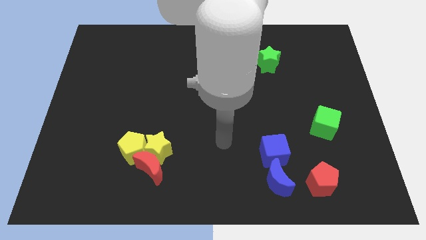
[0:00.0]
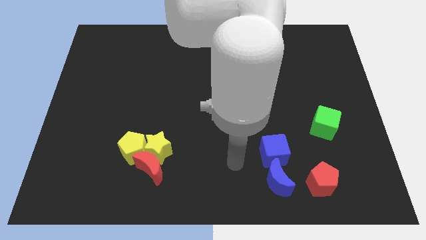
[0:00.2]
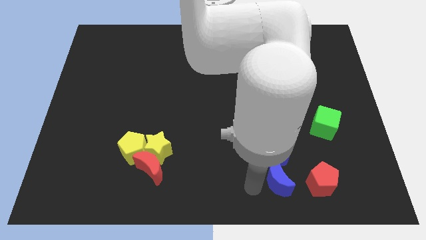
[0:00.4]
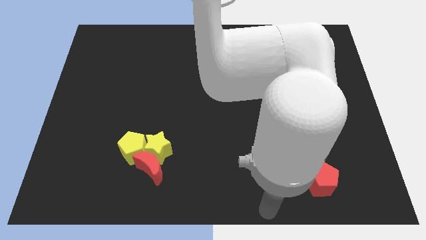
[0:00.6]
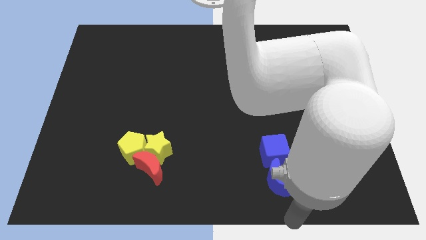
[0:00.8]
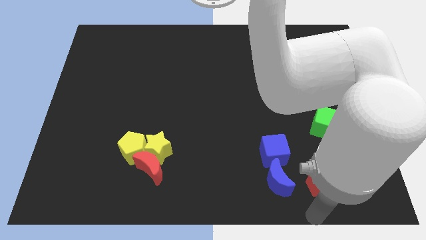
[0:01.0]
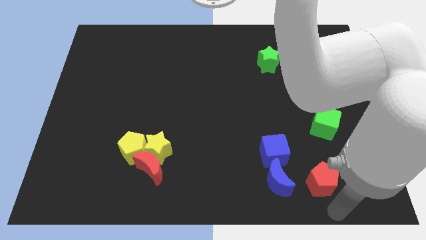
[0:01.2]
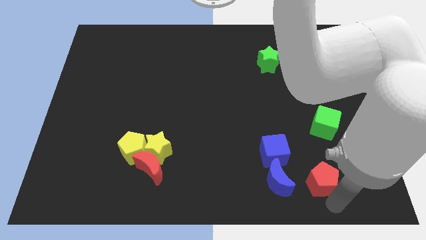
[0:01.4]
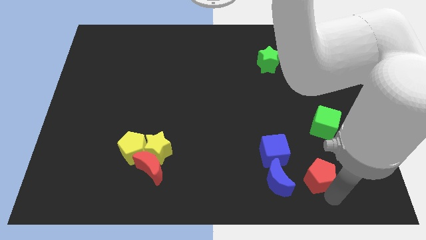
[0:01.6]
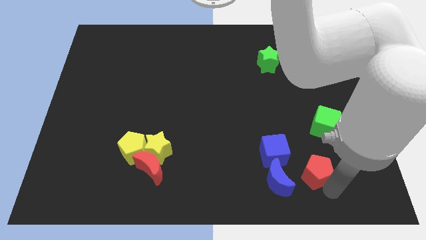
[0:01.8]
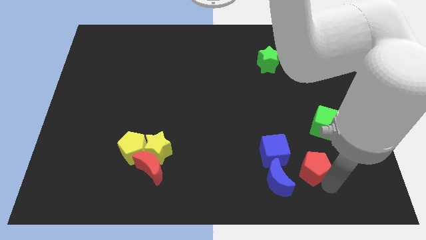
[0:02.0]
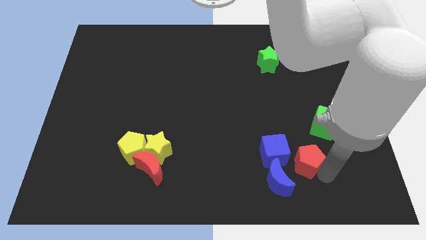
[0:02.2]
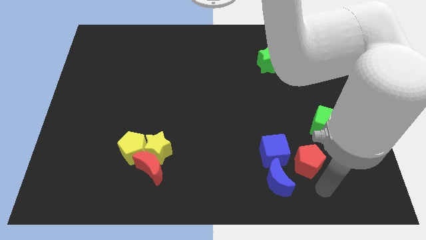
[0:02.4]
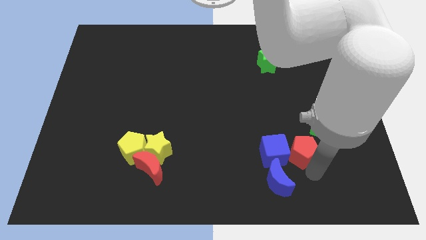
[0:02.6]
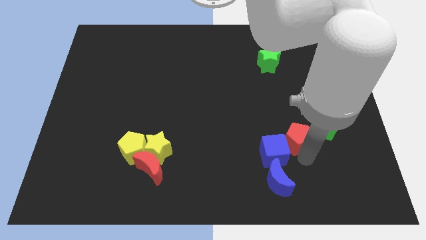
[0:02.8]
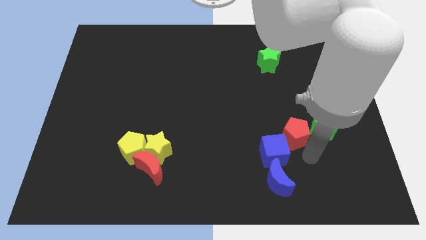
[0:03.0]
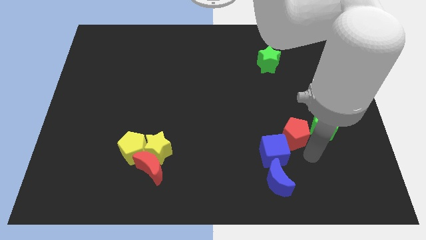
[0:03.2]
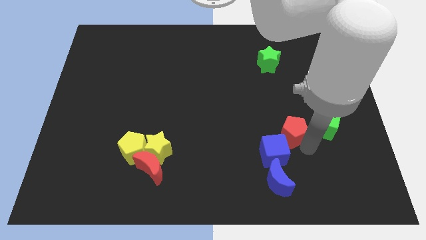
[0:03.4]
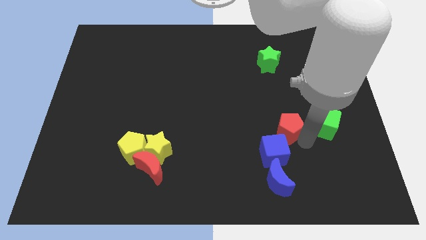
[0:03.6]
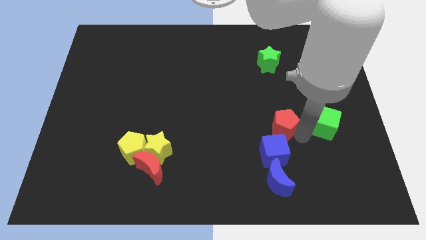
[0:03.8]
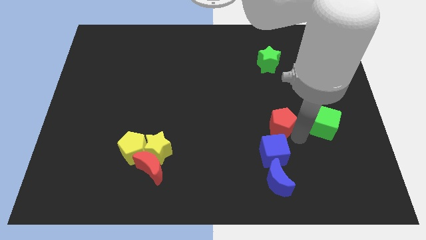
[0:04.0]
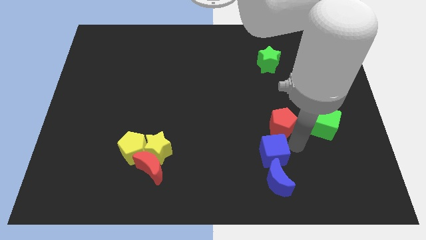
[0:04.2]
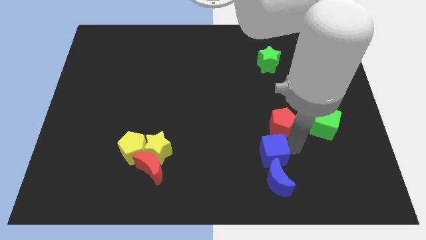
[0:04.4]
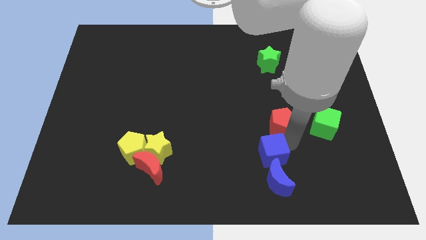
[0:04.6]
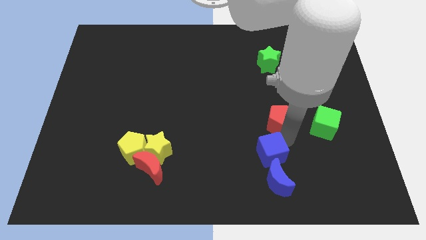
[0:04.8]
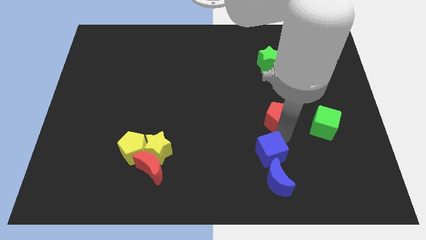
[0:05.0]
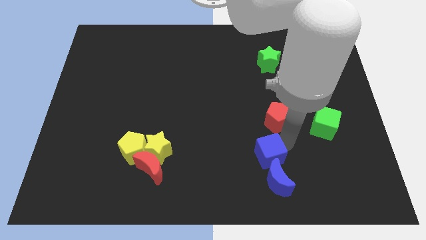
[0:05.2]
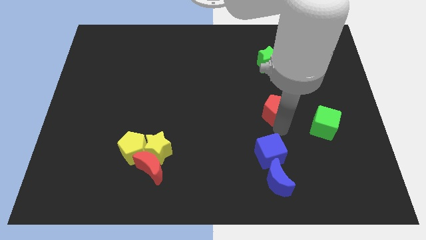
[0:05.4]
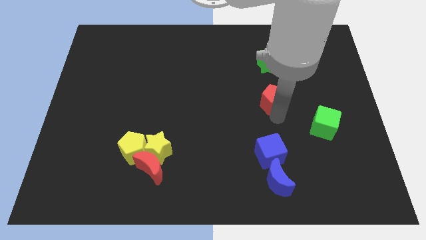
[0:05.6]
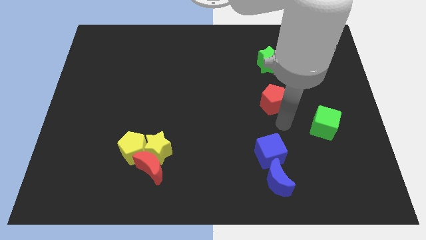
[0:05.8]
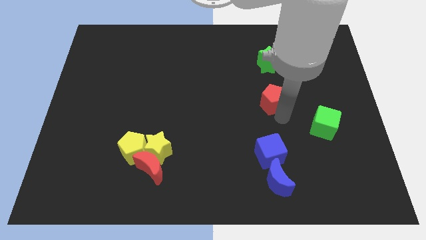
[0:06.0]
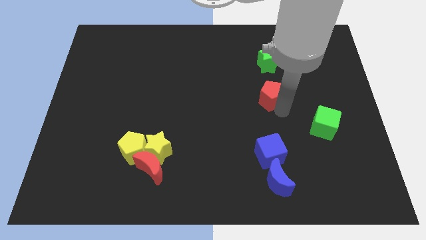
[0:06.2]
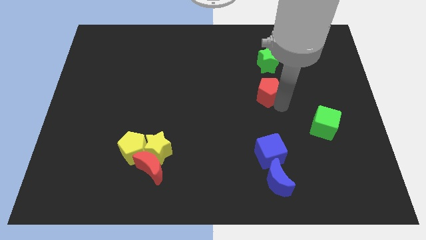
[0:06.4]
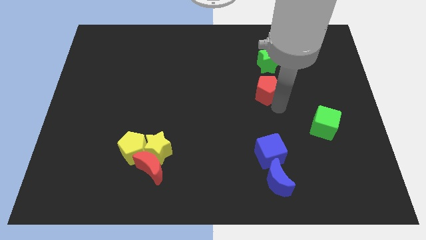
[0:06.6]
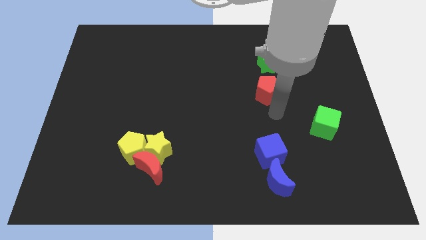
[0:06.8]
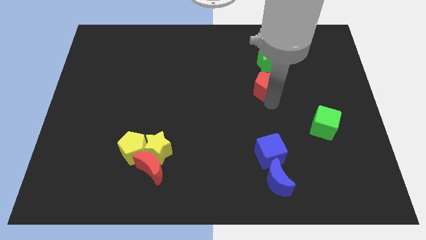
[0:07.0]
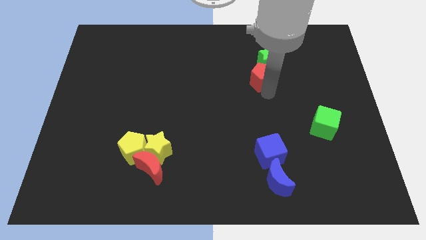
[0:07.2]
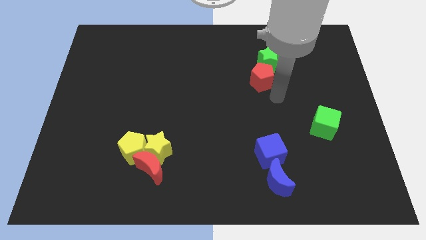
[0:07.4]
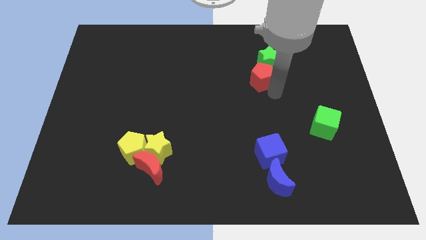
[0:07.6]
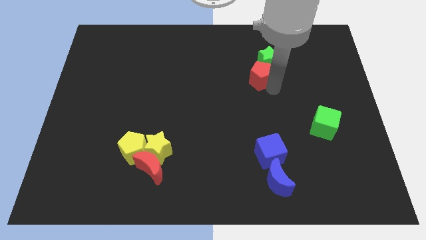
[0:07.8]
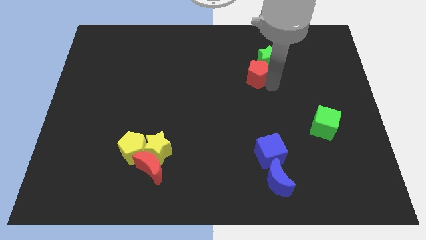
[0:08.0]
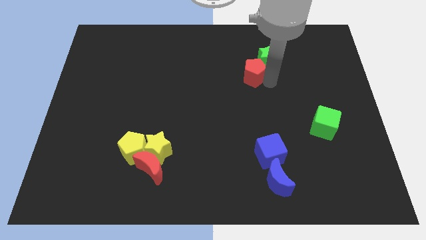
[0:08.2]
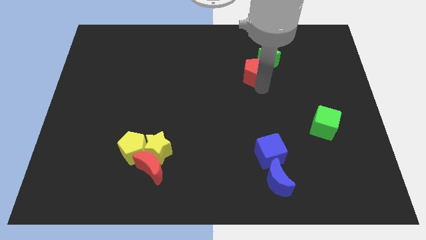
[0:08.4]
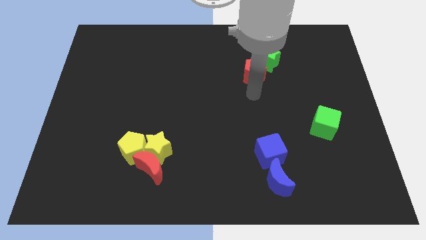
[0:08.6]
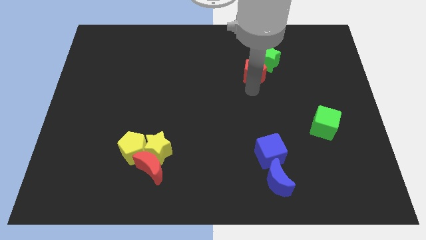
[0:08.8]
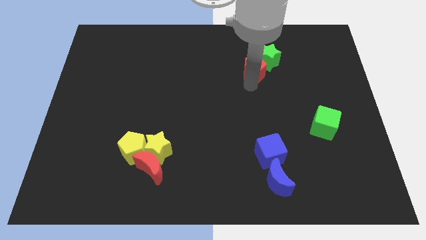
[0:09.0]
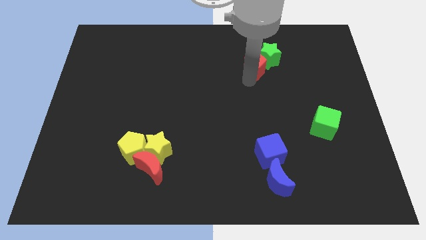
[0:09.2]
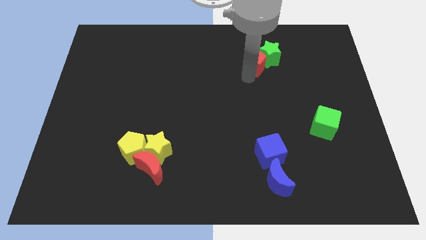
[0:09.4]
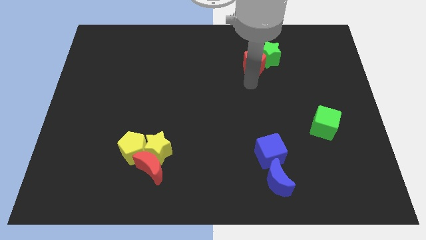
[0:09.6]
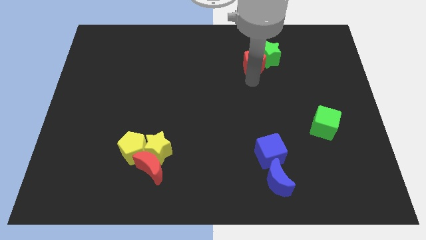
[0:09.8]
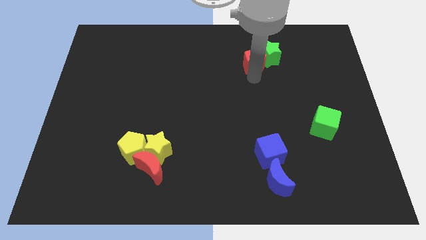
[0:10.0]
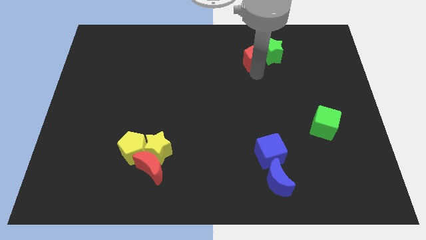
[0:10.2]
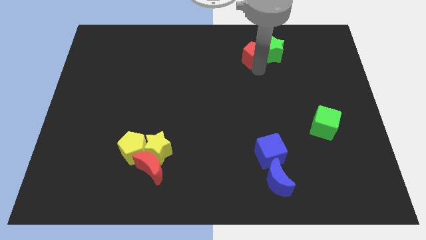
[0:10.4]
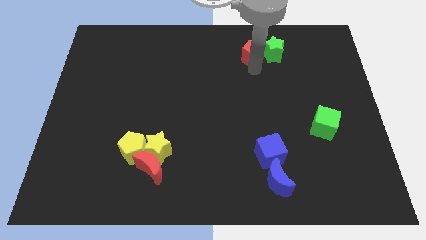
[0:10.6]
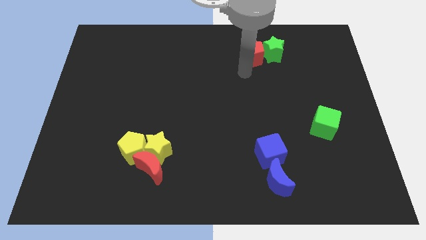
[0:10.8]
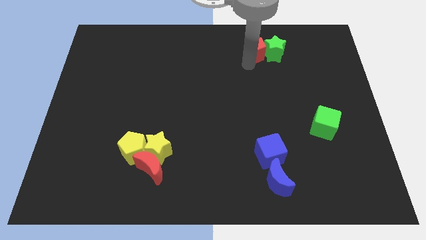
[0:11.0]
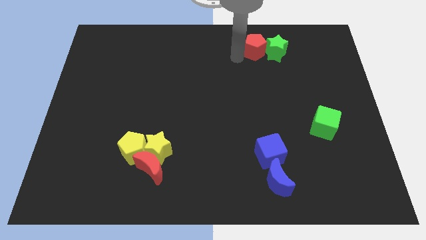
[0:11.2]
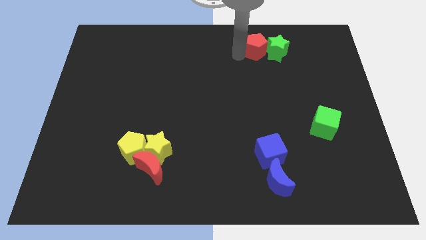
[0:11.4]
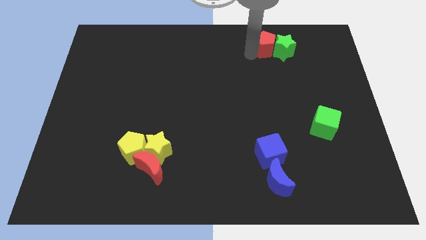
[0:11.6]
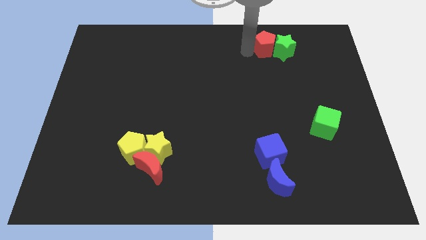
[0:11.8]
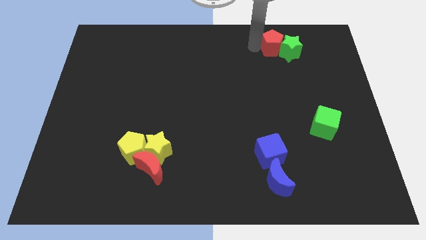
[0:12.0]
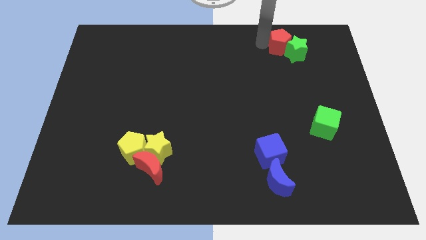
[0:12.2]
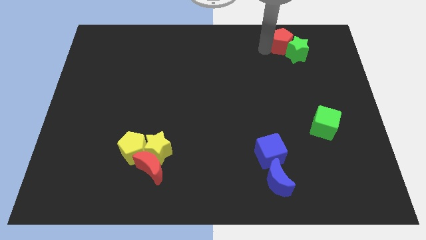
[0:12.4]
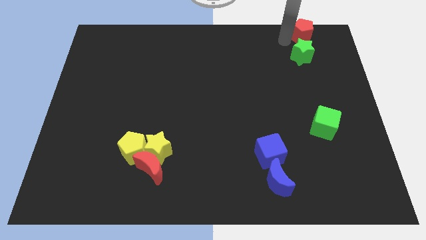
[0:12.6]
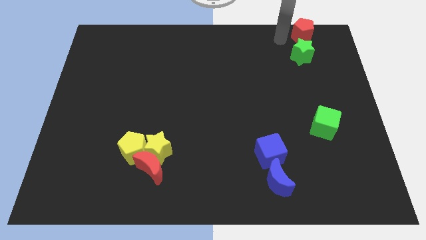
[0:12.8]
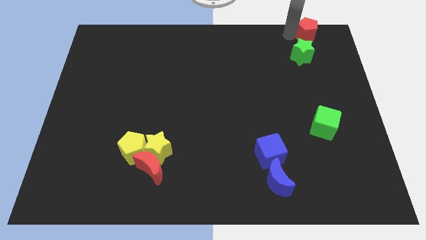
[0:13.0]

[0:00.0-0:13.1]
put the red pentagon to the upper right corner
